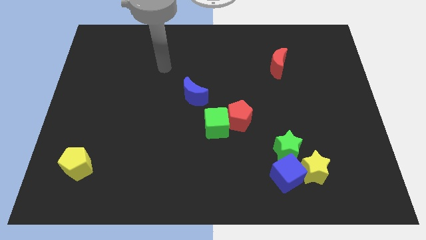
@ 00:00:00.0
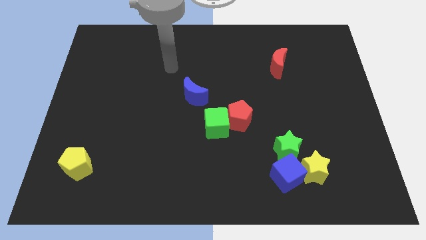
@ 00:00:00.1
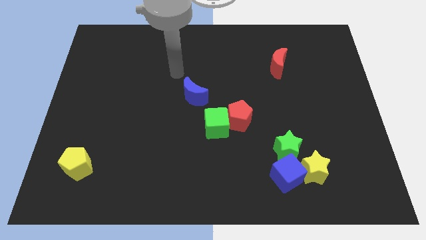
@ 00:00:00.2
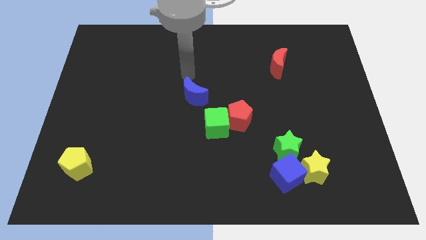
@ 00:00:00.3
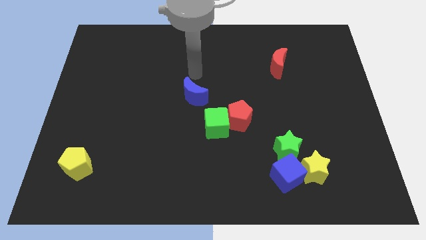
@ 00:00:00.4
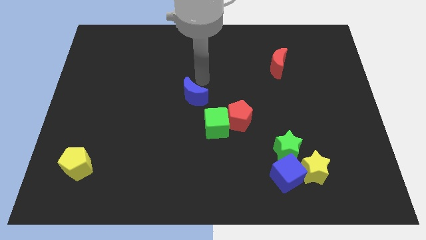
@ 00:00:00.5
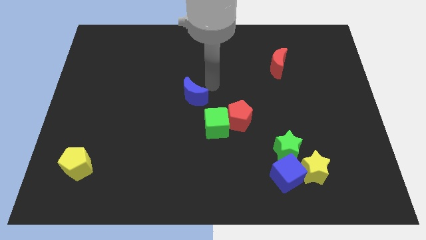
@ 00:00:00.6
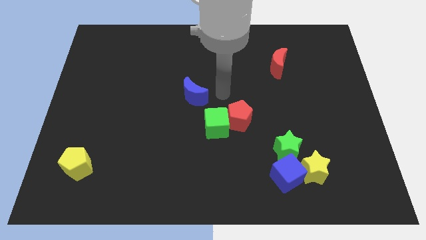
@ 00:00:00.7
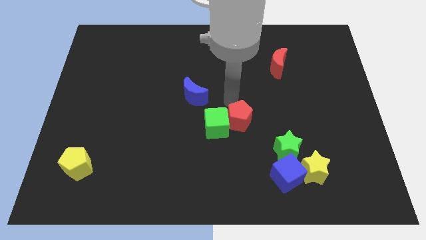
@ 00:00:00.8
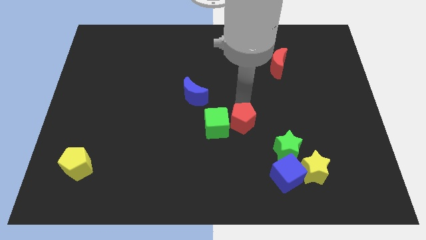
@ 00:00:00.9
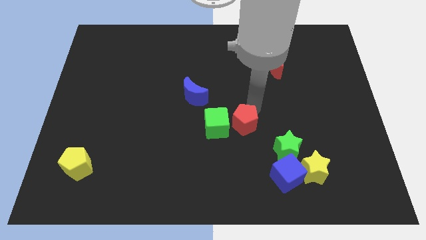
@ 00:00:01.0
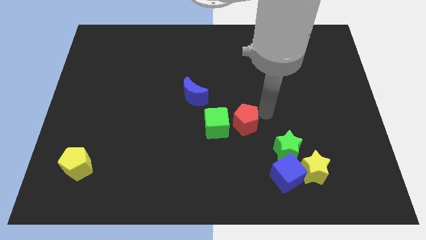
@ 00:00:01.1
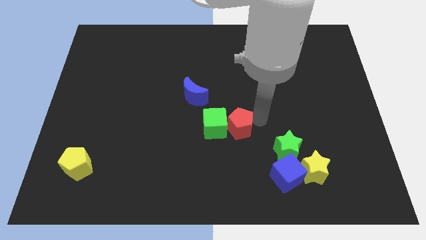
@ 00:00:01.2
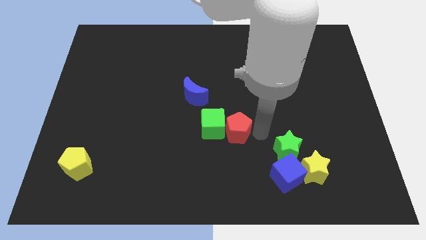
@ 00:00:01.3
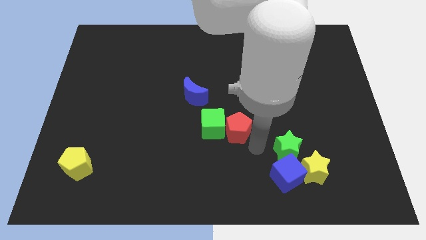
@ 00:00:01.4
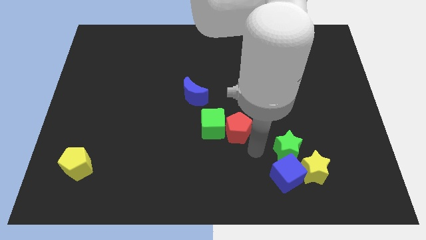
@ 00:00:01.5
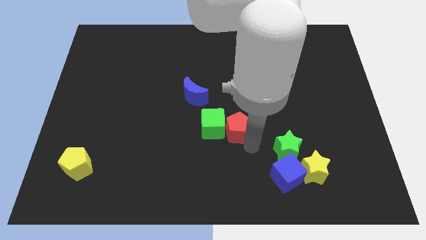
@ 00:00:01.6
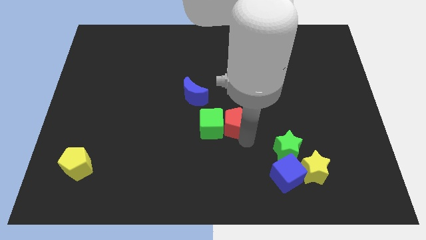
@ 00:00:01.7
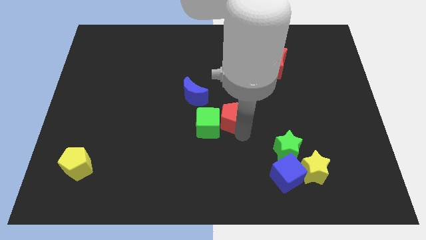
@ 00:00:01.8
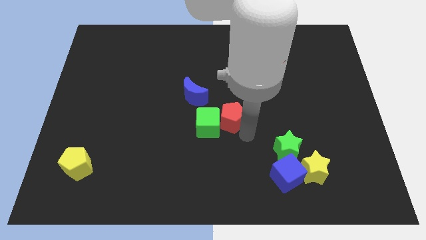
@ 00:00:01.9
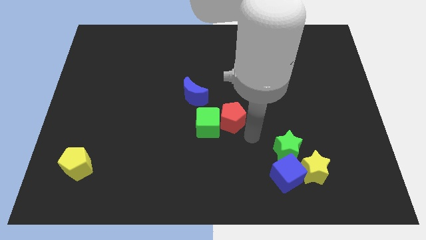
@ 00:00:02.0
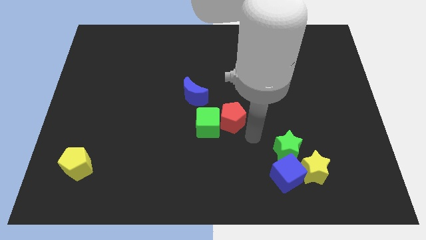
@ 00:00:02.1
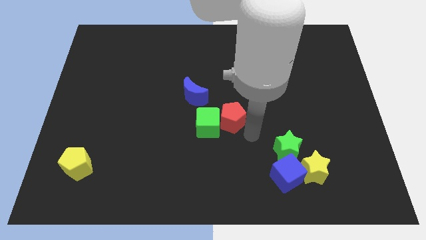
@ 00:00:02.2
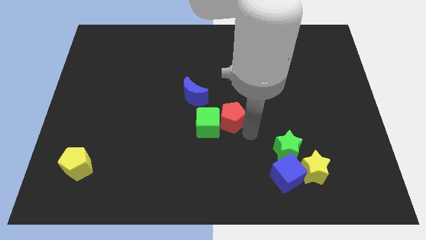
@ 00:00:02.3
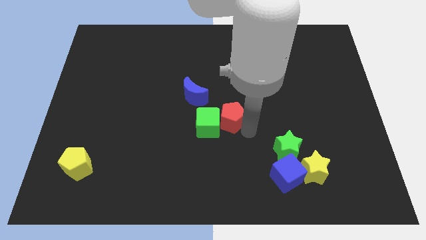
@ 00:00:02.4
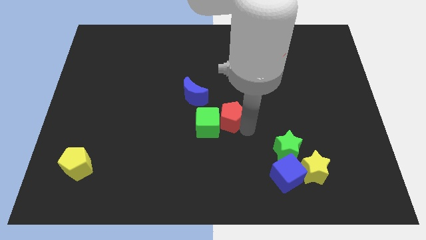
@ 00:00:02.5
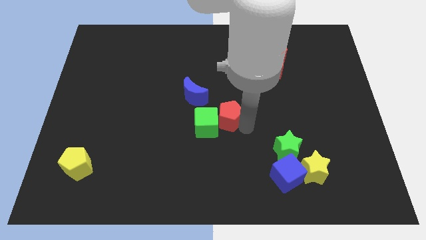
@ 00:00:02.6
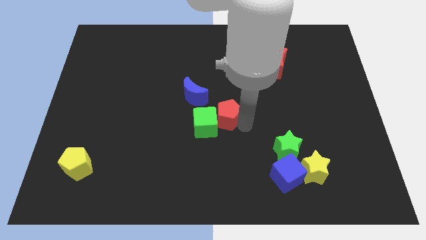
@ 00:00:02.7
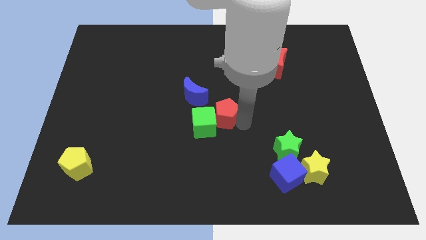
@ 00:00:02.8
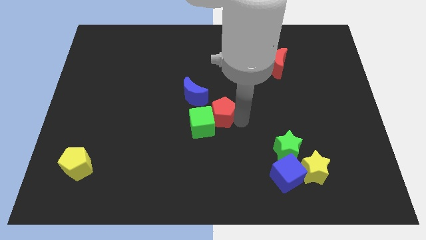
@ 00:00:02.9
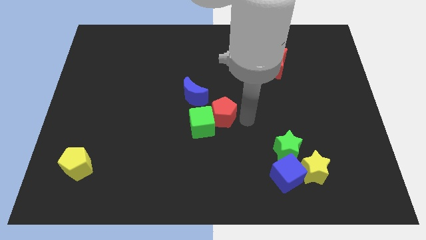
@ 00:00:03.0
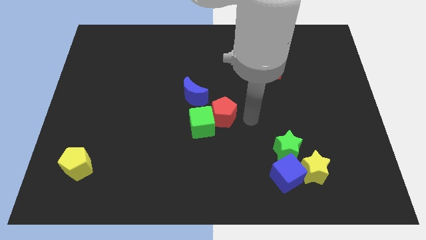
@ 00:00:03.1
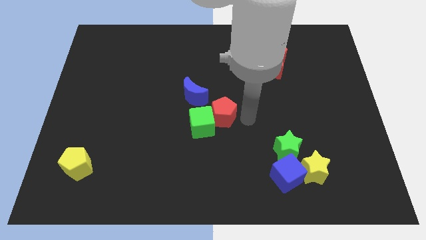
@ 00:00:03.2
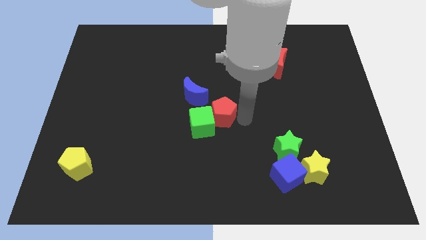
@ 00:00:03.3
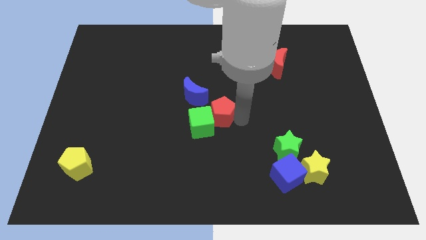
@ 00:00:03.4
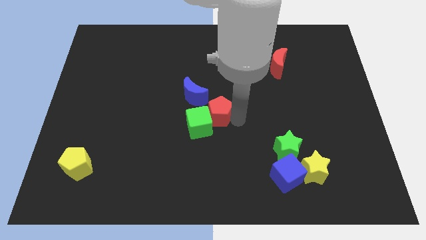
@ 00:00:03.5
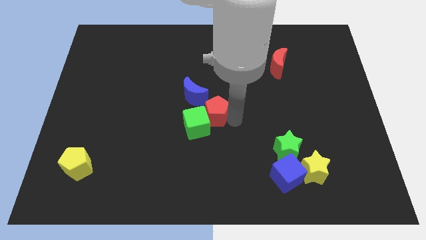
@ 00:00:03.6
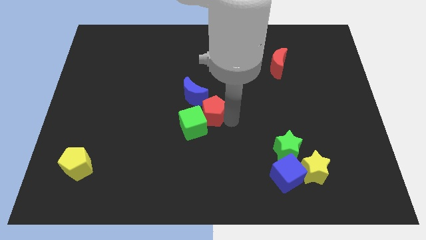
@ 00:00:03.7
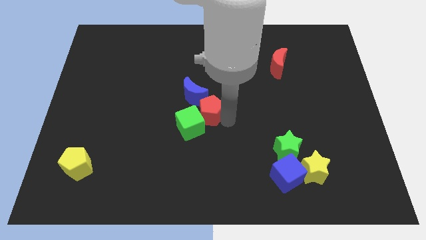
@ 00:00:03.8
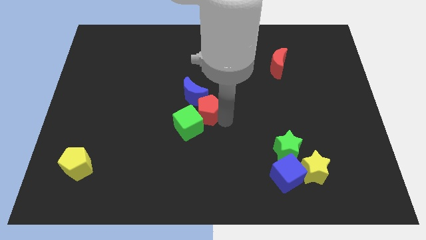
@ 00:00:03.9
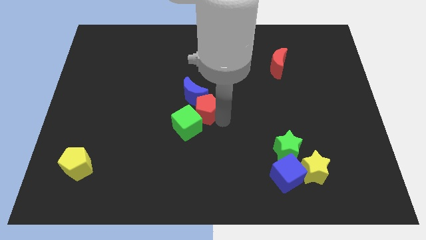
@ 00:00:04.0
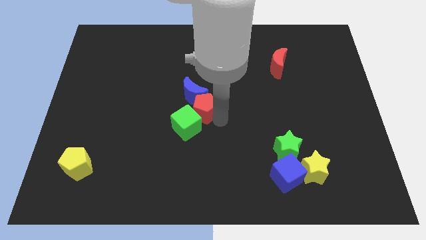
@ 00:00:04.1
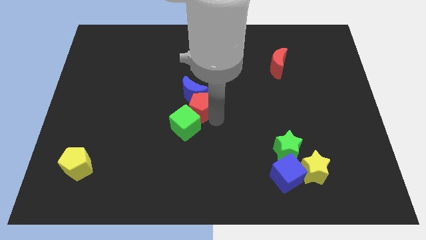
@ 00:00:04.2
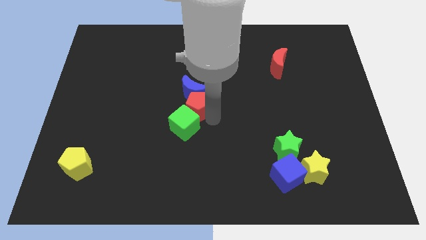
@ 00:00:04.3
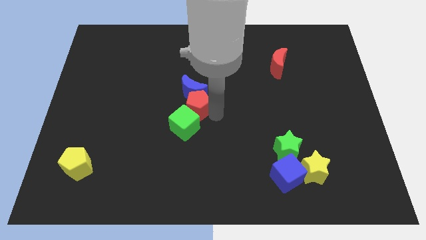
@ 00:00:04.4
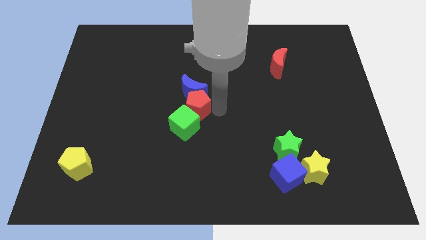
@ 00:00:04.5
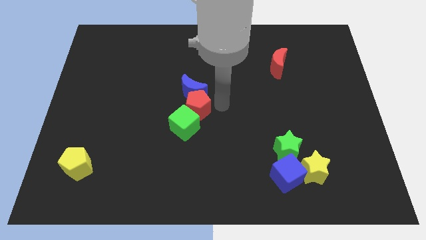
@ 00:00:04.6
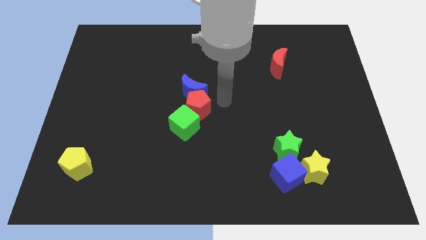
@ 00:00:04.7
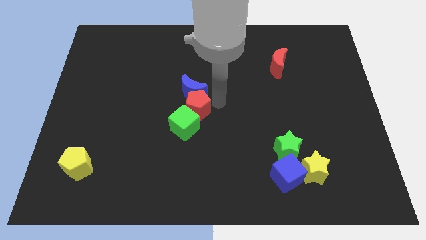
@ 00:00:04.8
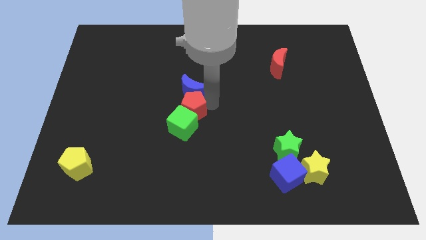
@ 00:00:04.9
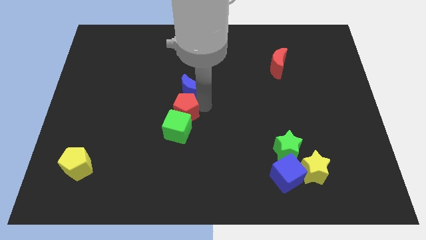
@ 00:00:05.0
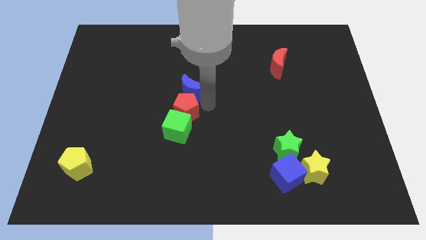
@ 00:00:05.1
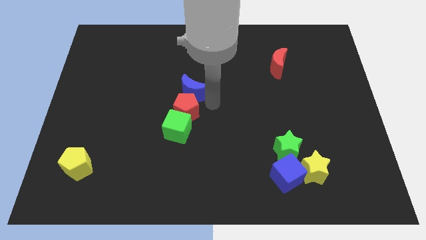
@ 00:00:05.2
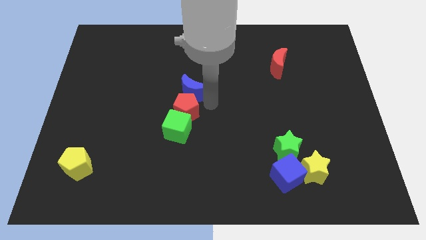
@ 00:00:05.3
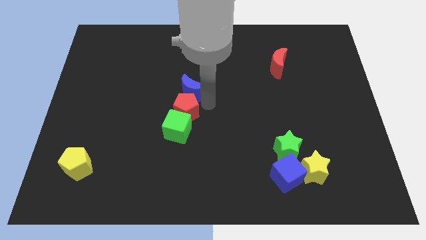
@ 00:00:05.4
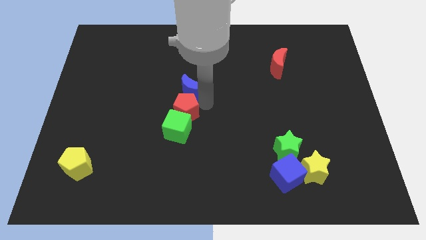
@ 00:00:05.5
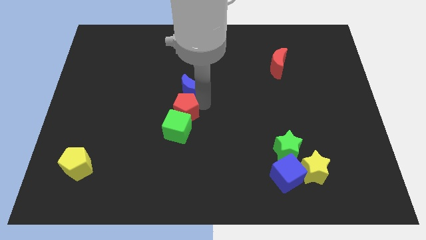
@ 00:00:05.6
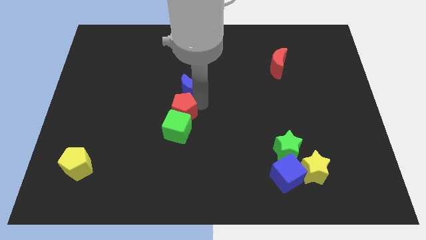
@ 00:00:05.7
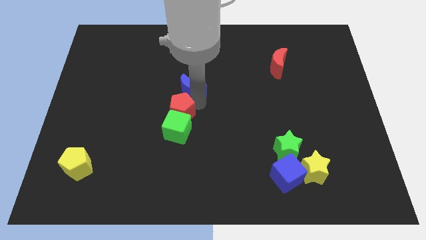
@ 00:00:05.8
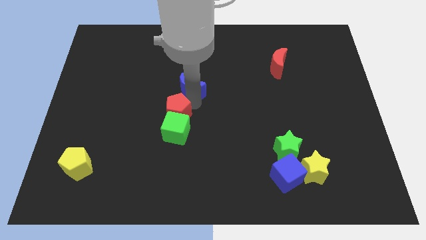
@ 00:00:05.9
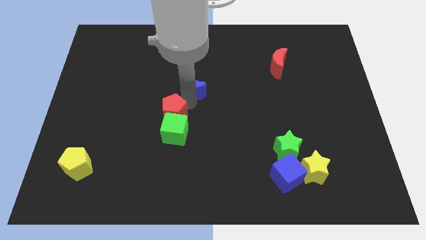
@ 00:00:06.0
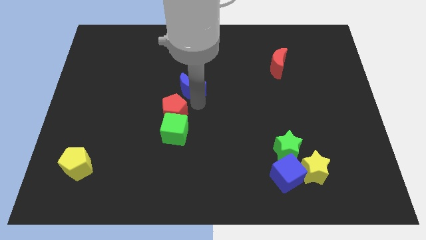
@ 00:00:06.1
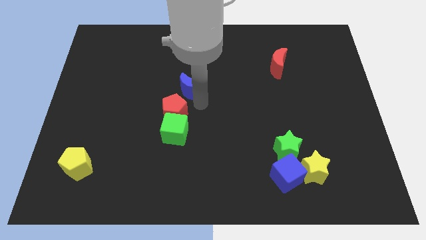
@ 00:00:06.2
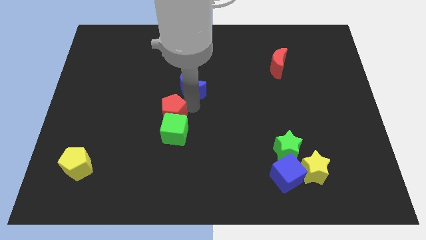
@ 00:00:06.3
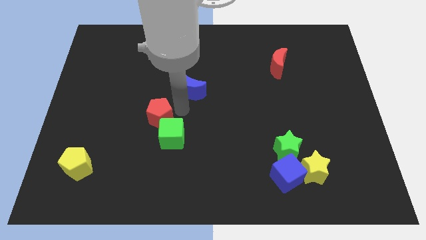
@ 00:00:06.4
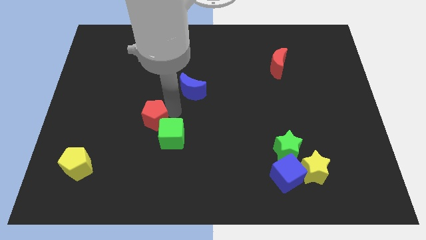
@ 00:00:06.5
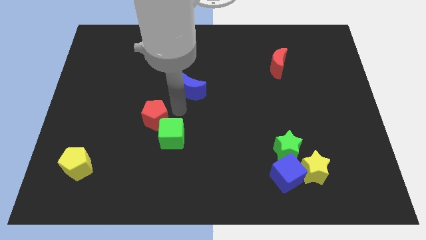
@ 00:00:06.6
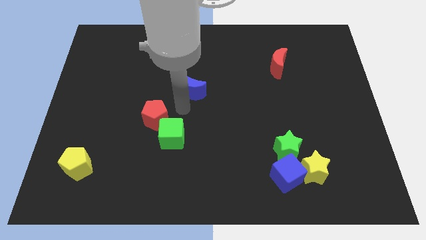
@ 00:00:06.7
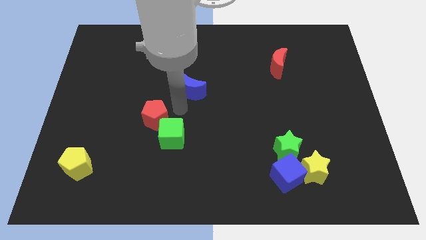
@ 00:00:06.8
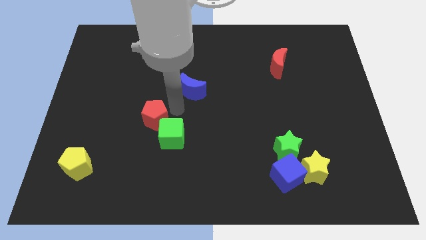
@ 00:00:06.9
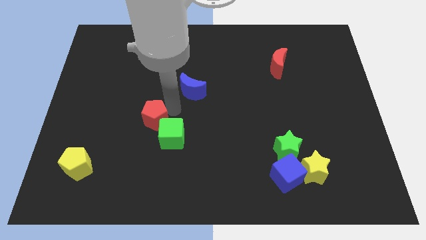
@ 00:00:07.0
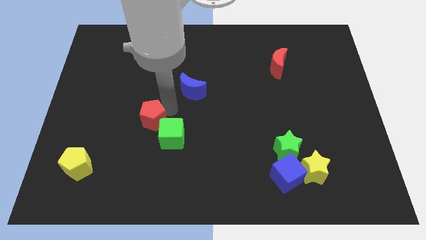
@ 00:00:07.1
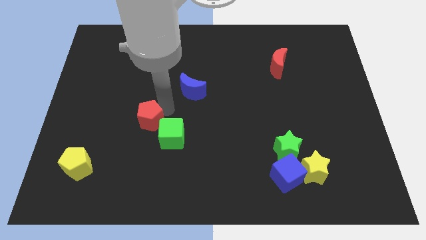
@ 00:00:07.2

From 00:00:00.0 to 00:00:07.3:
slide the red pentagon left

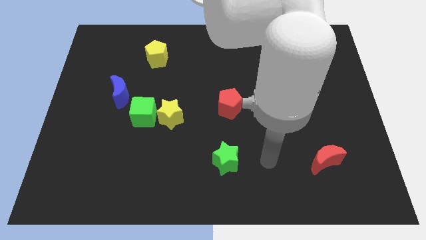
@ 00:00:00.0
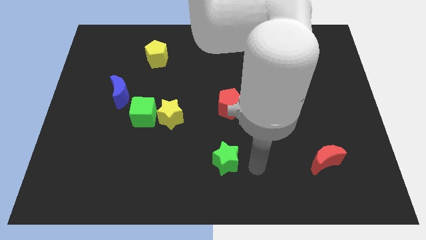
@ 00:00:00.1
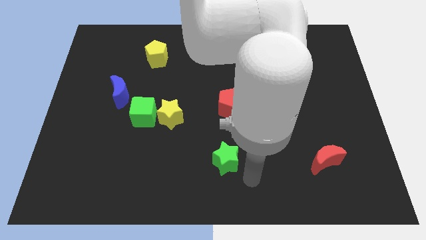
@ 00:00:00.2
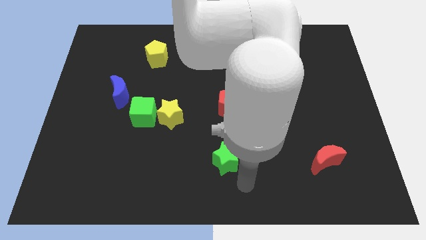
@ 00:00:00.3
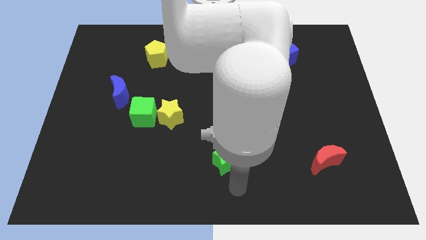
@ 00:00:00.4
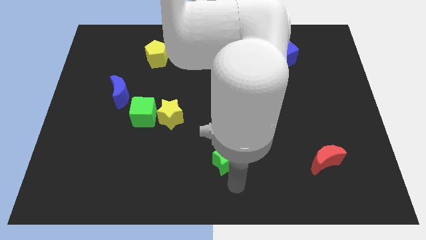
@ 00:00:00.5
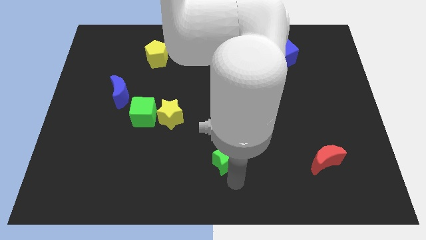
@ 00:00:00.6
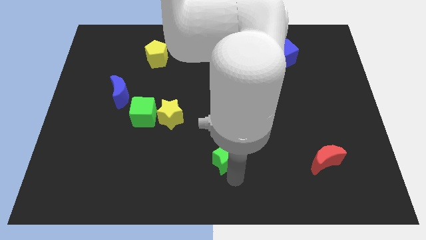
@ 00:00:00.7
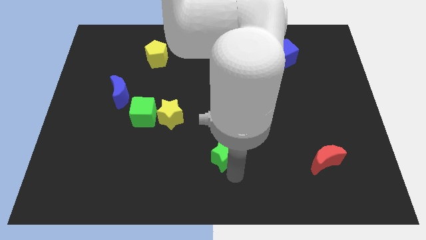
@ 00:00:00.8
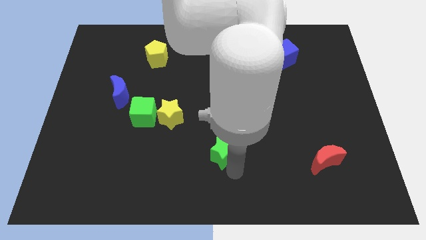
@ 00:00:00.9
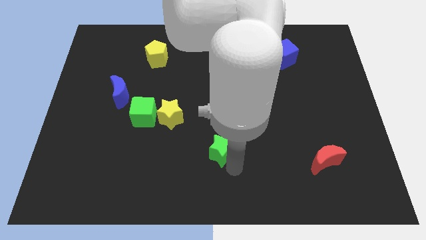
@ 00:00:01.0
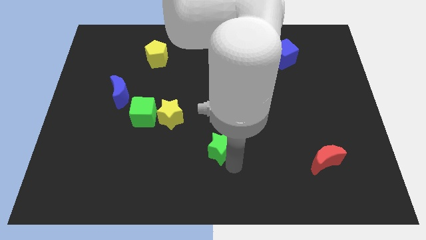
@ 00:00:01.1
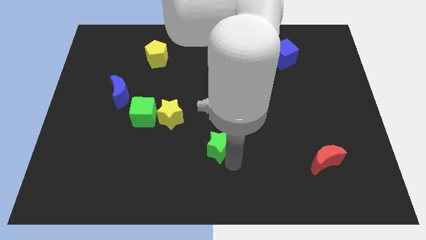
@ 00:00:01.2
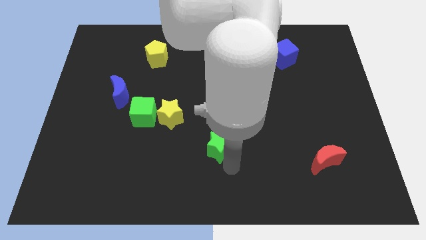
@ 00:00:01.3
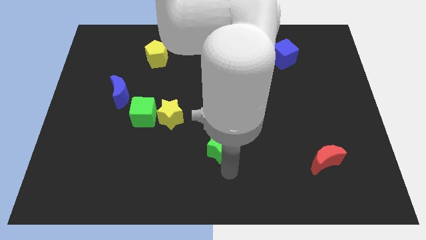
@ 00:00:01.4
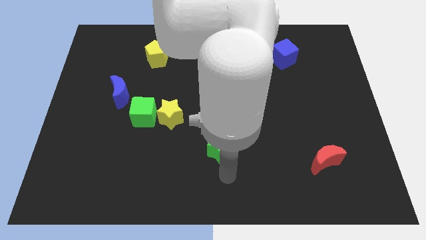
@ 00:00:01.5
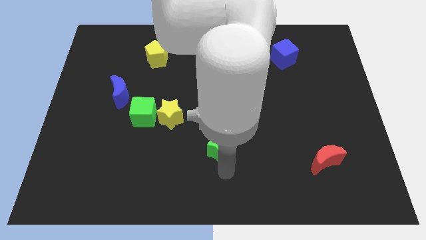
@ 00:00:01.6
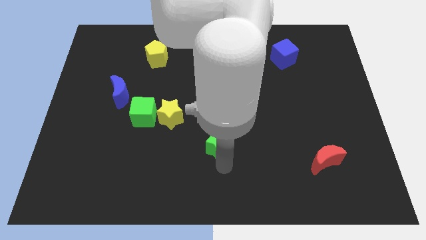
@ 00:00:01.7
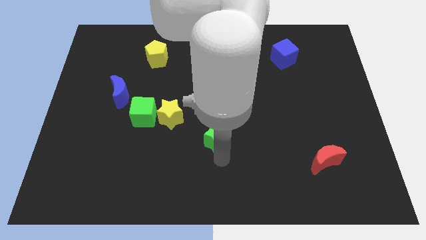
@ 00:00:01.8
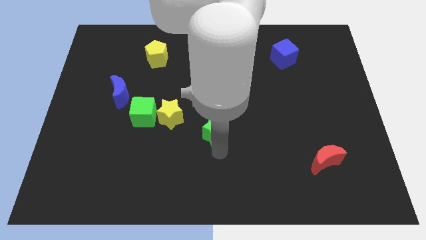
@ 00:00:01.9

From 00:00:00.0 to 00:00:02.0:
slightly slide the green star up
